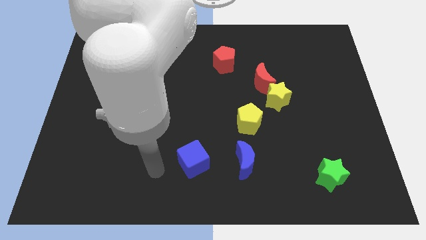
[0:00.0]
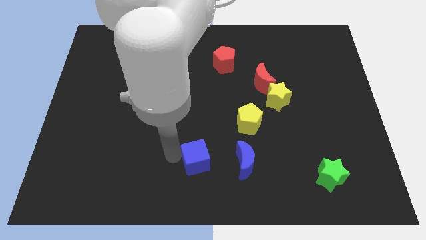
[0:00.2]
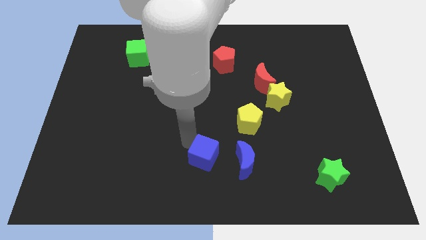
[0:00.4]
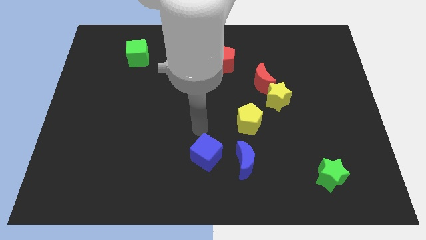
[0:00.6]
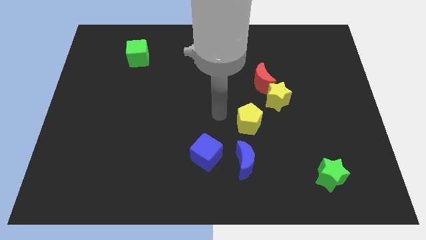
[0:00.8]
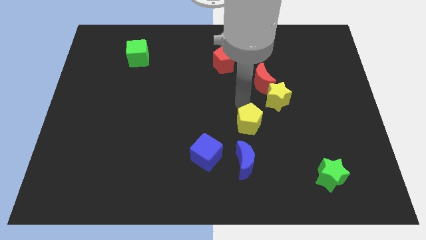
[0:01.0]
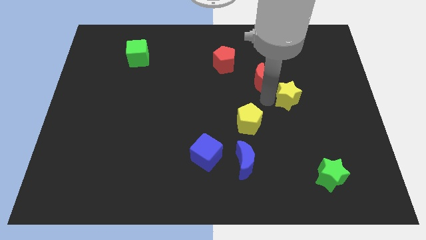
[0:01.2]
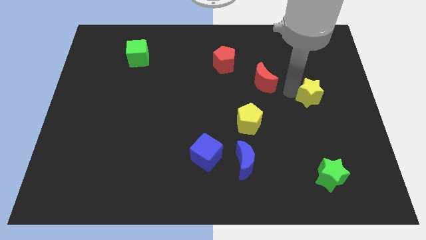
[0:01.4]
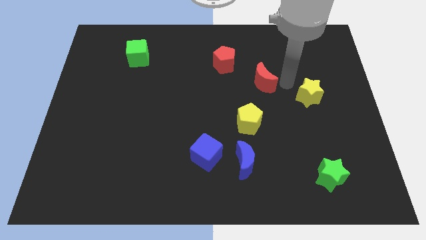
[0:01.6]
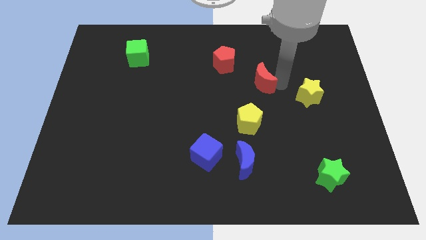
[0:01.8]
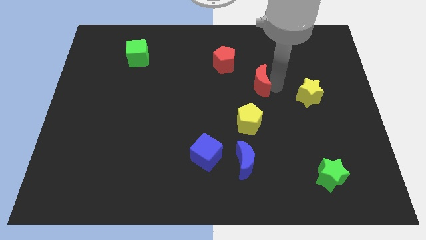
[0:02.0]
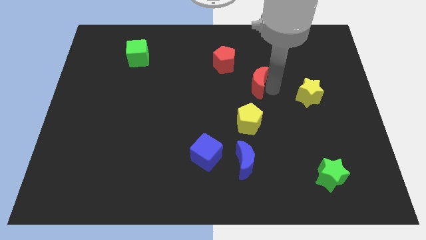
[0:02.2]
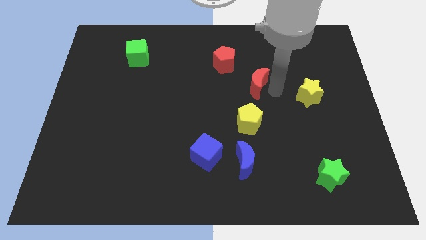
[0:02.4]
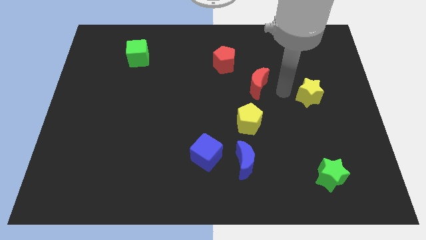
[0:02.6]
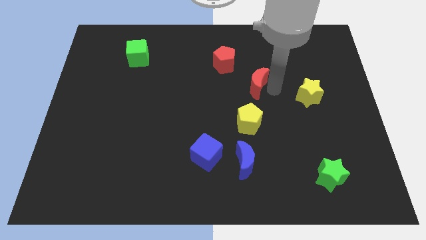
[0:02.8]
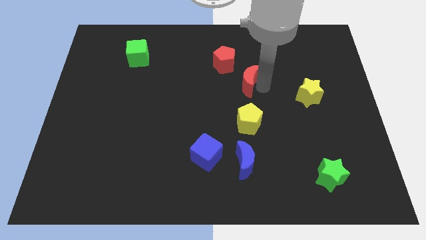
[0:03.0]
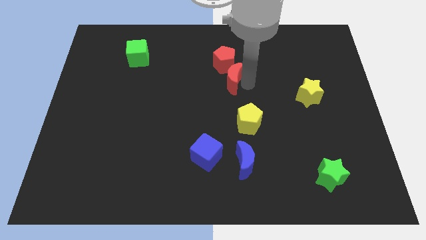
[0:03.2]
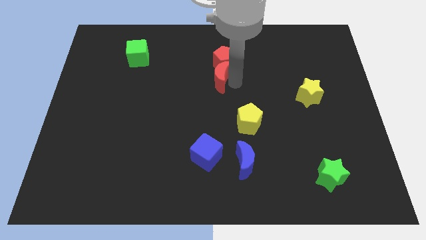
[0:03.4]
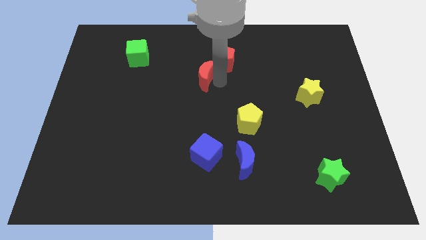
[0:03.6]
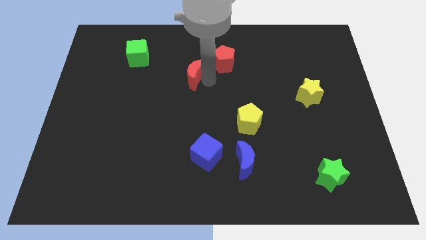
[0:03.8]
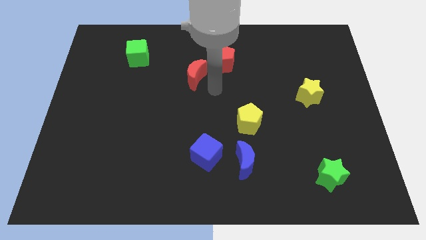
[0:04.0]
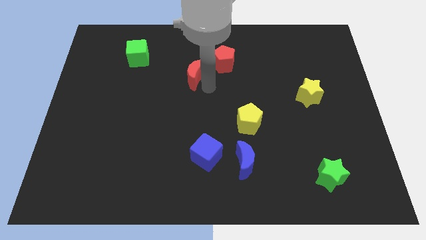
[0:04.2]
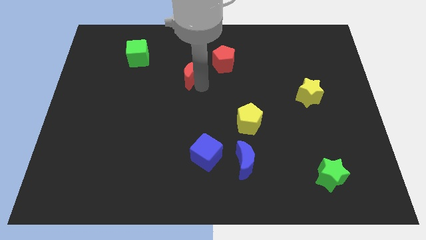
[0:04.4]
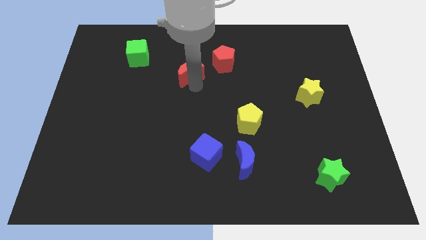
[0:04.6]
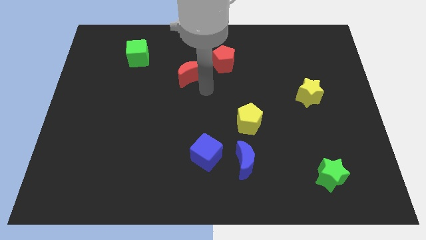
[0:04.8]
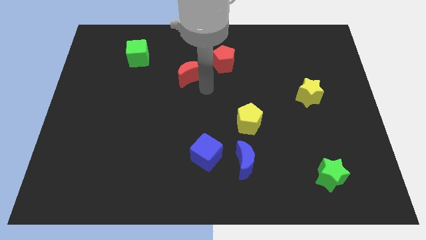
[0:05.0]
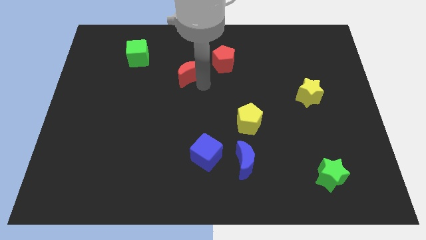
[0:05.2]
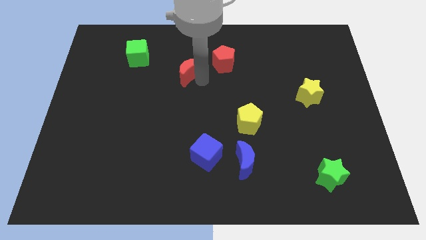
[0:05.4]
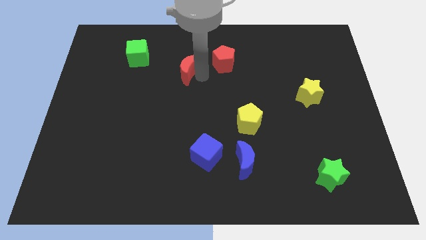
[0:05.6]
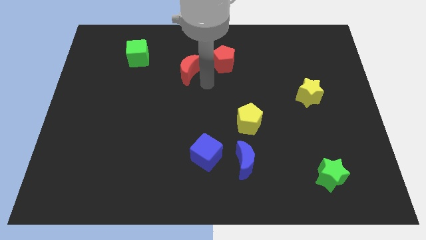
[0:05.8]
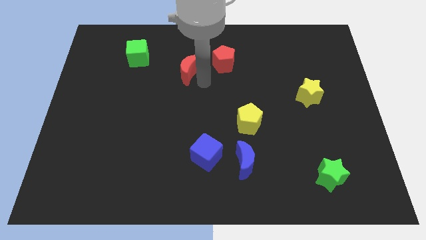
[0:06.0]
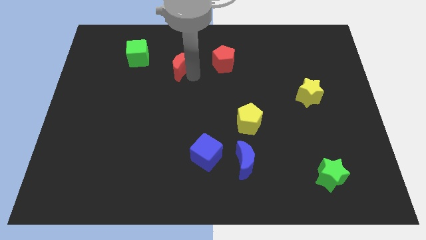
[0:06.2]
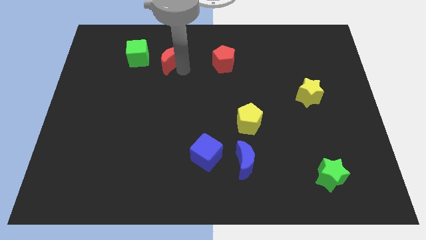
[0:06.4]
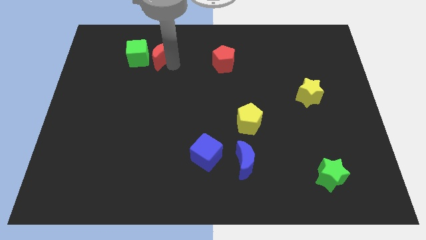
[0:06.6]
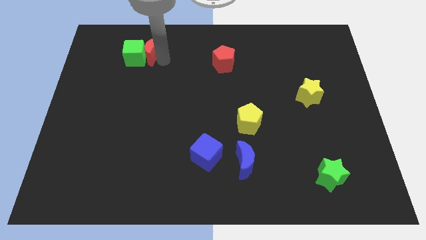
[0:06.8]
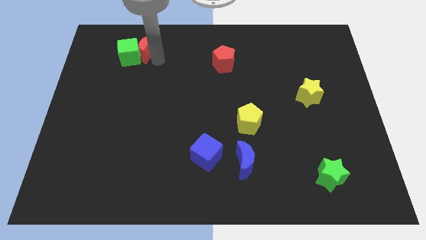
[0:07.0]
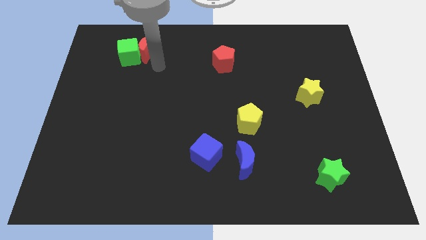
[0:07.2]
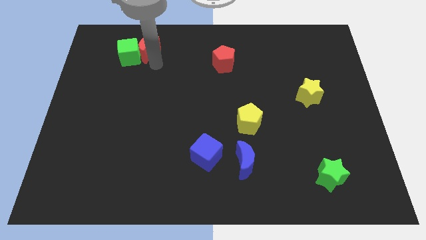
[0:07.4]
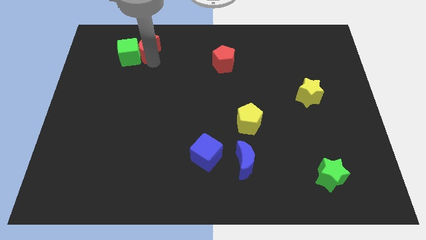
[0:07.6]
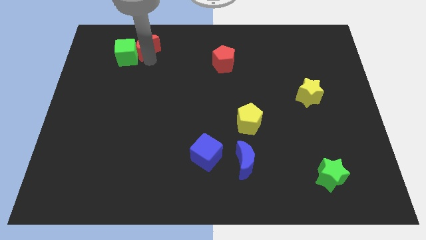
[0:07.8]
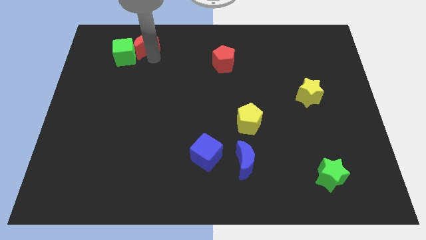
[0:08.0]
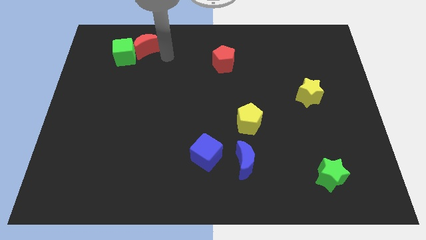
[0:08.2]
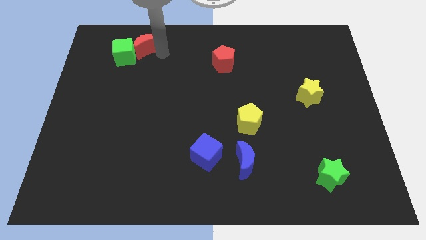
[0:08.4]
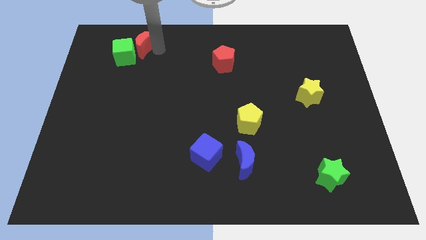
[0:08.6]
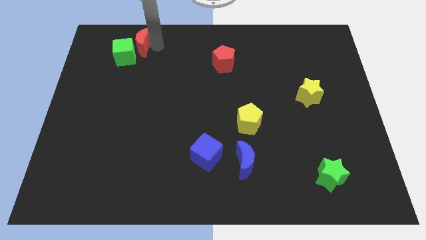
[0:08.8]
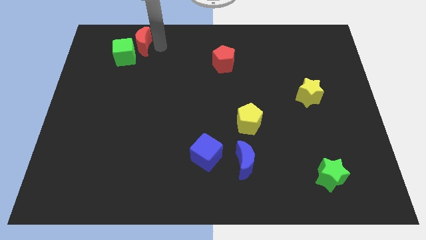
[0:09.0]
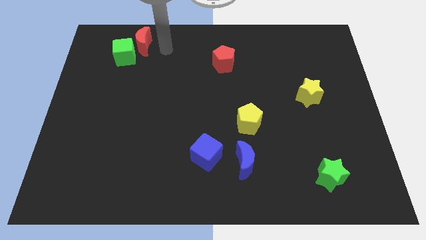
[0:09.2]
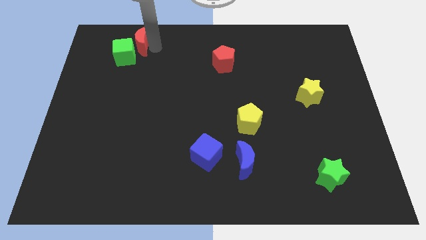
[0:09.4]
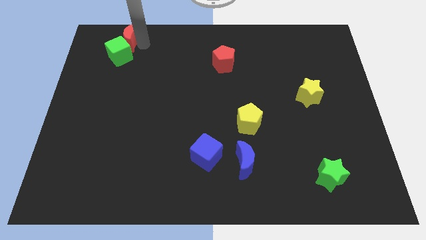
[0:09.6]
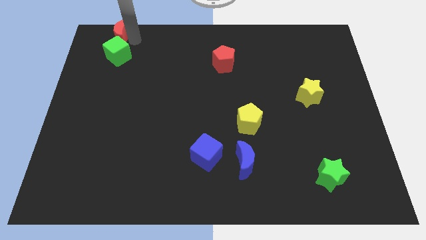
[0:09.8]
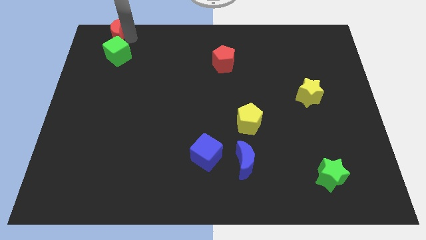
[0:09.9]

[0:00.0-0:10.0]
push the red moon to the top left corner

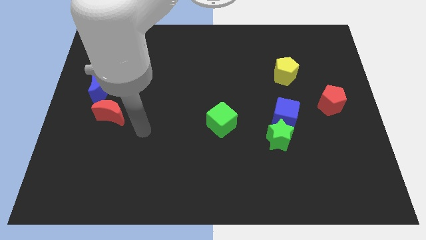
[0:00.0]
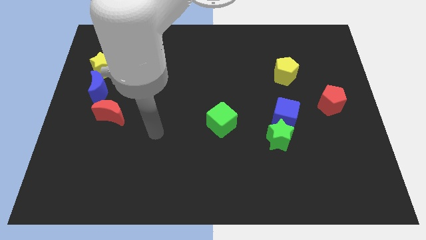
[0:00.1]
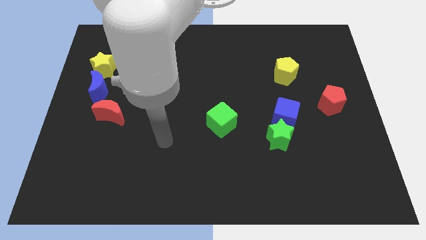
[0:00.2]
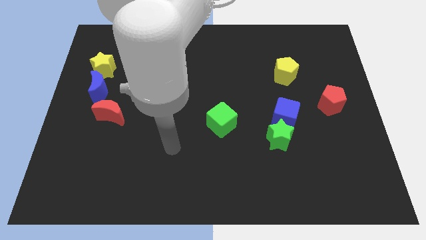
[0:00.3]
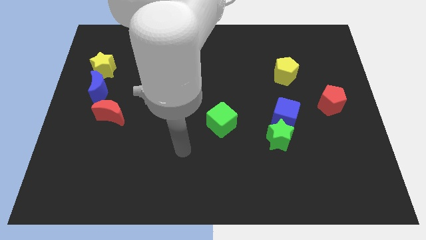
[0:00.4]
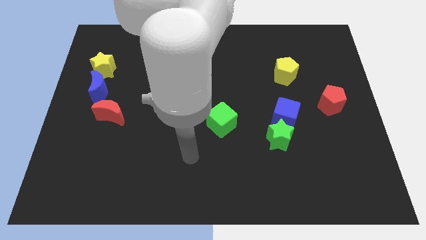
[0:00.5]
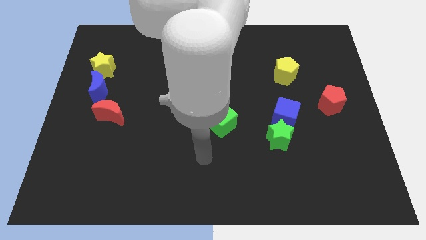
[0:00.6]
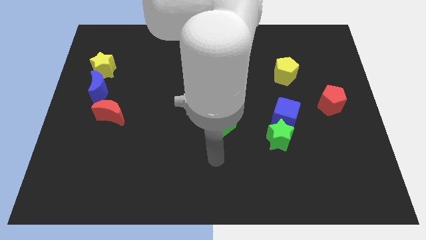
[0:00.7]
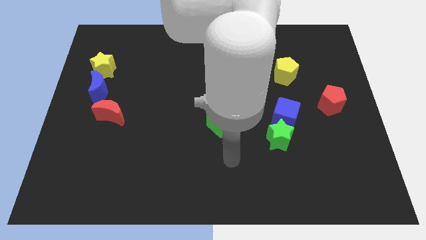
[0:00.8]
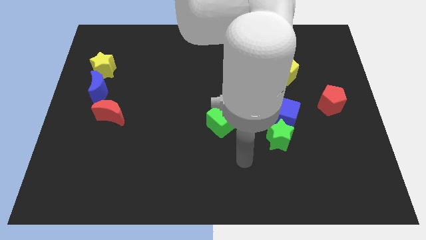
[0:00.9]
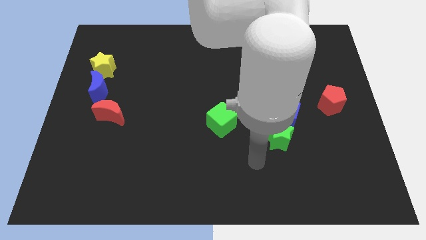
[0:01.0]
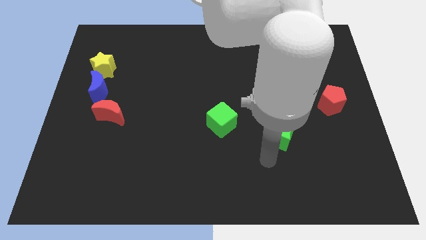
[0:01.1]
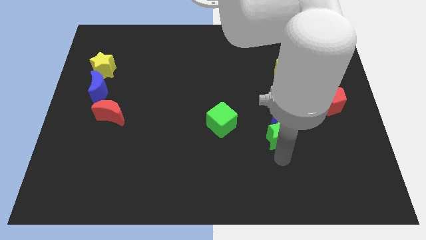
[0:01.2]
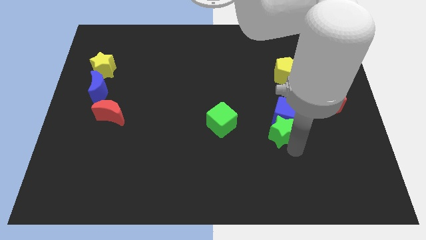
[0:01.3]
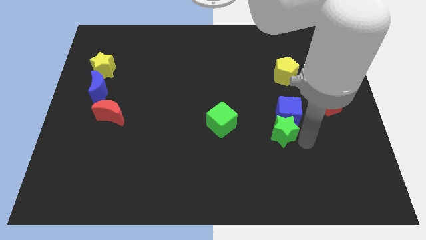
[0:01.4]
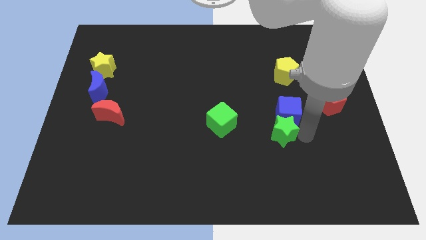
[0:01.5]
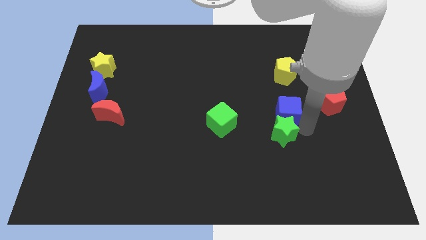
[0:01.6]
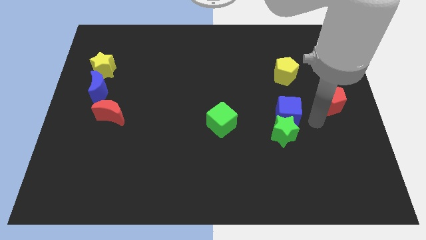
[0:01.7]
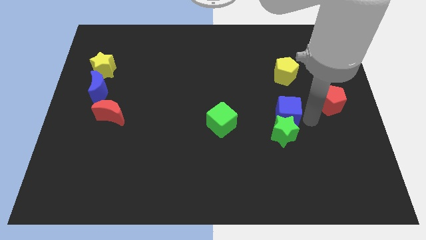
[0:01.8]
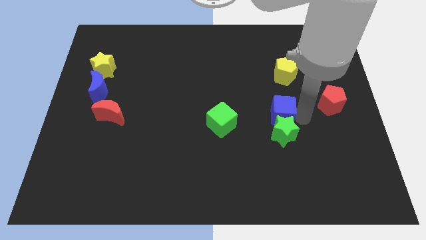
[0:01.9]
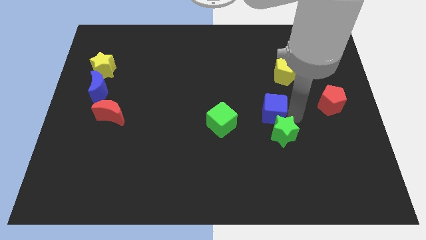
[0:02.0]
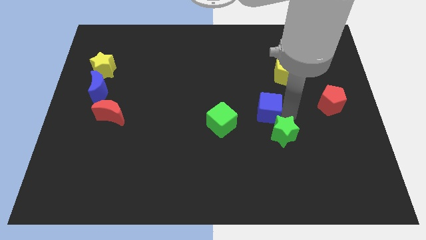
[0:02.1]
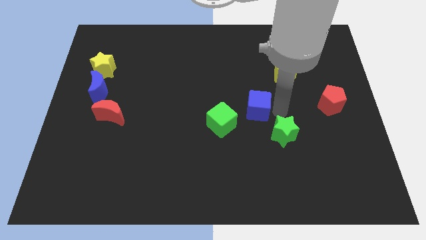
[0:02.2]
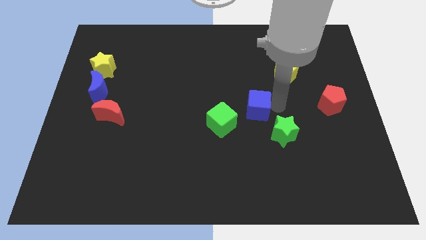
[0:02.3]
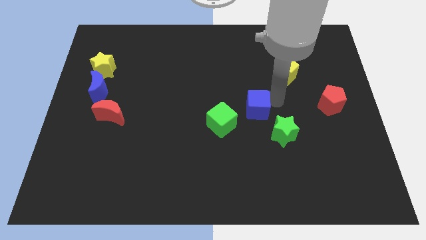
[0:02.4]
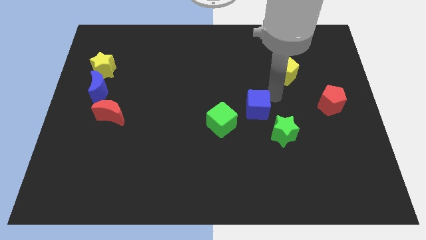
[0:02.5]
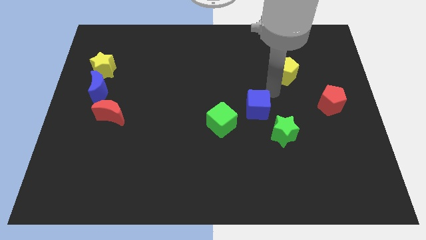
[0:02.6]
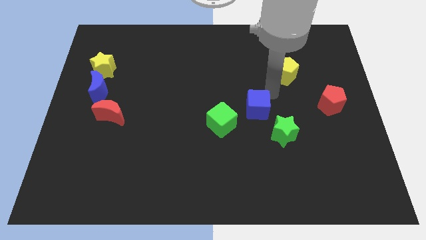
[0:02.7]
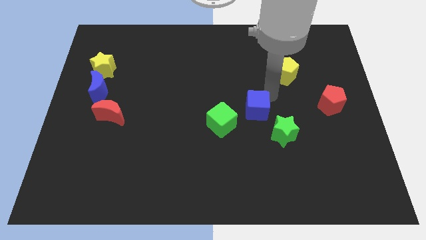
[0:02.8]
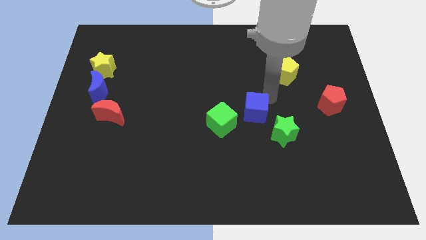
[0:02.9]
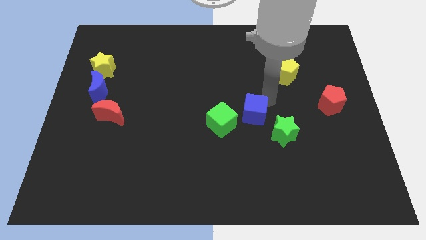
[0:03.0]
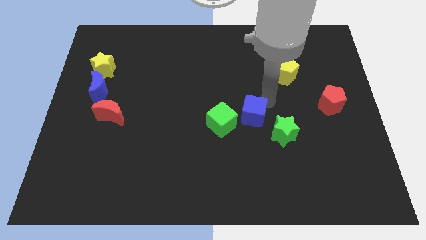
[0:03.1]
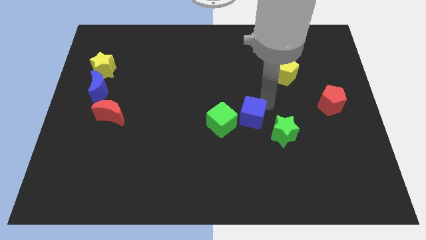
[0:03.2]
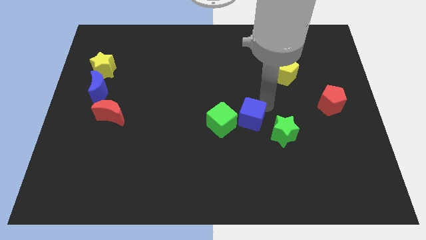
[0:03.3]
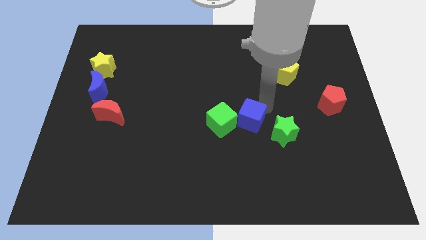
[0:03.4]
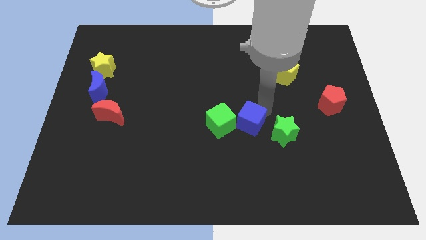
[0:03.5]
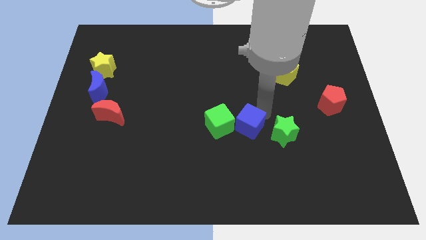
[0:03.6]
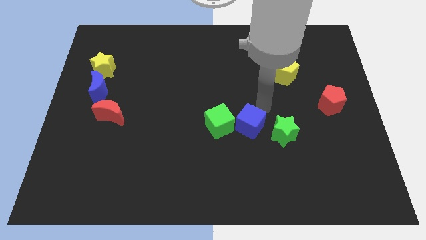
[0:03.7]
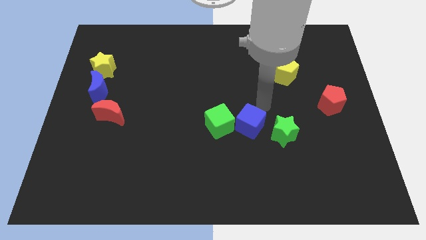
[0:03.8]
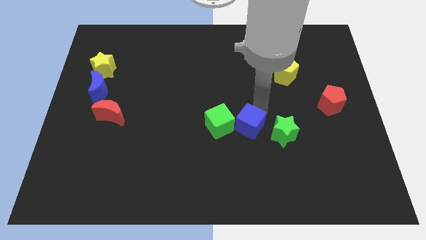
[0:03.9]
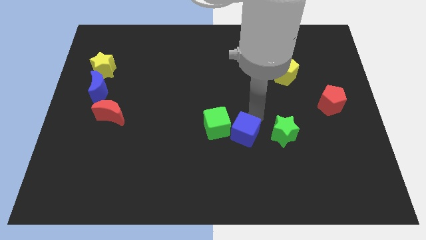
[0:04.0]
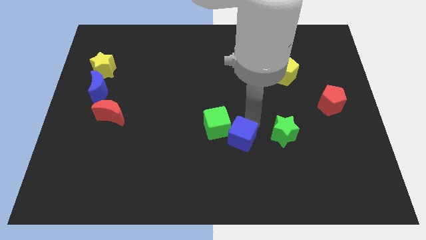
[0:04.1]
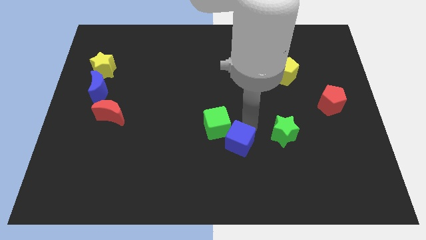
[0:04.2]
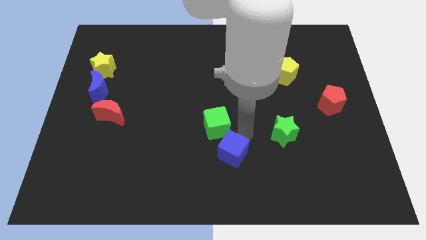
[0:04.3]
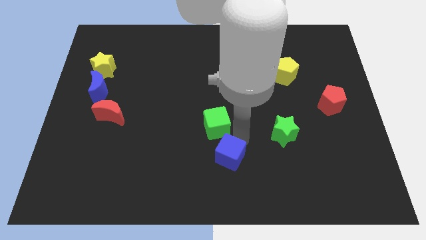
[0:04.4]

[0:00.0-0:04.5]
move the blue cube to the bottom
